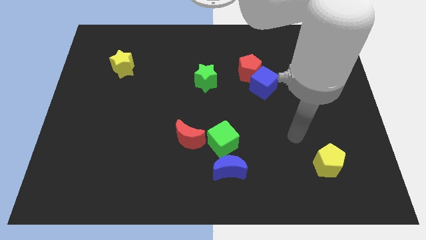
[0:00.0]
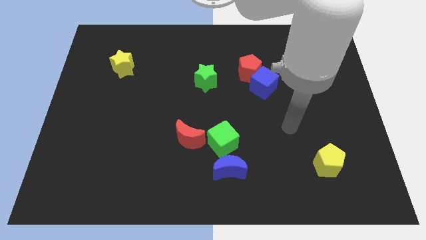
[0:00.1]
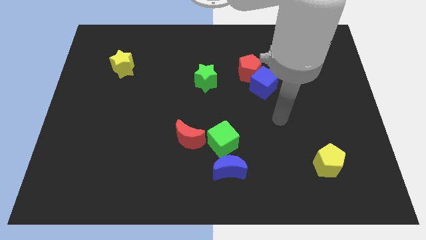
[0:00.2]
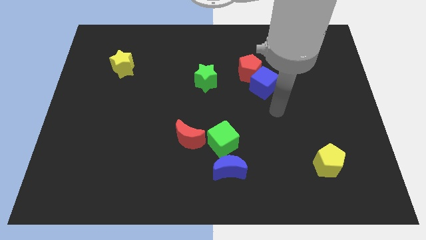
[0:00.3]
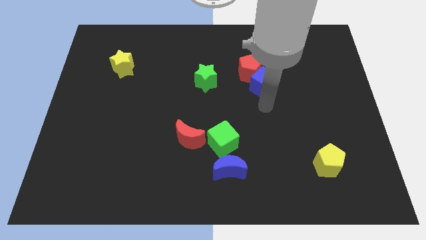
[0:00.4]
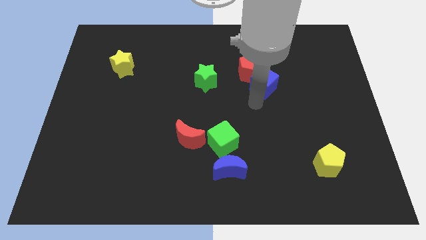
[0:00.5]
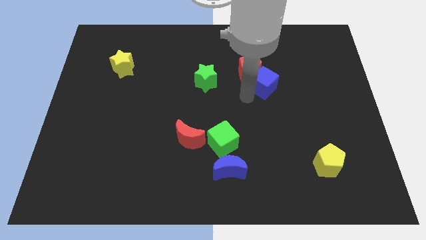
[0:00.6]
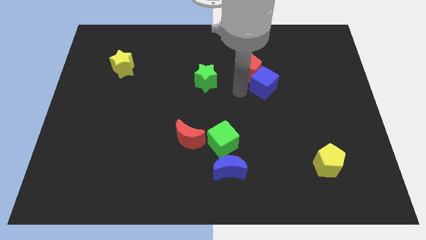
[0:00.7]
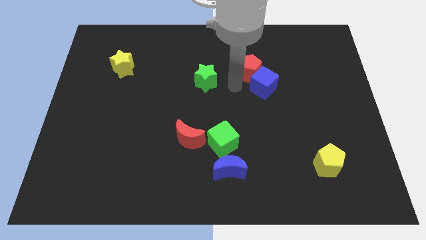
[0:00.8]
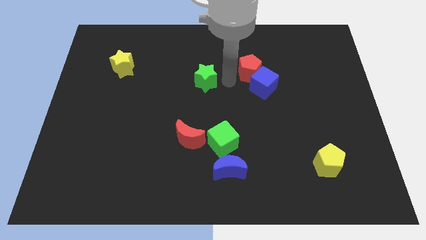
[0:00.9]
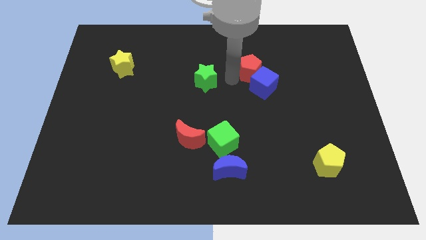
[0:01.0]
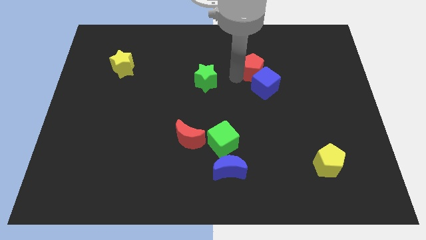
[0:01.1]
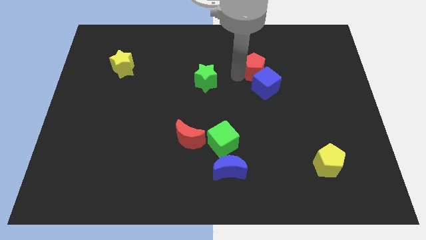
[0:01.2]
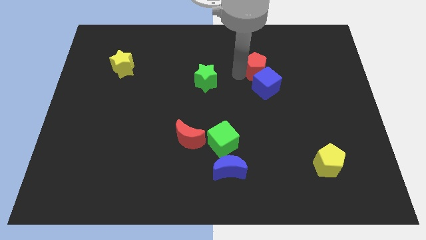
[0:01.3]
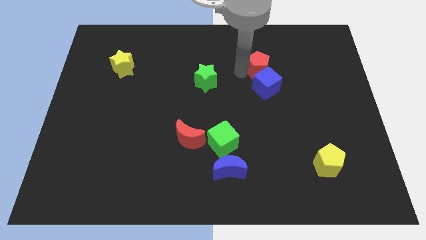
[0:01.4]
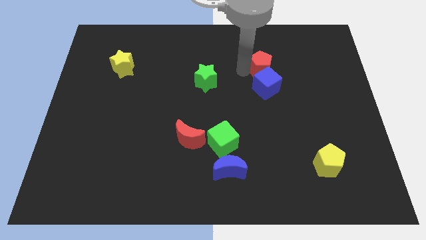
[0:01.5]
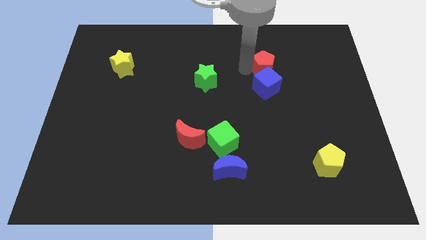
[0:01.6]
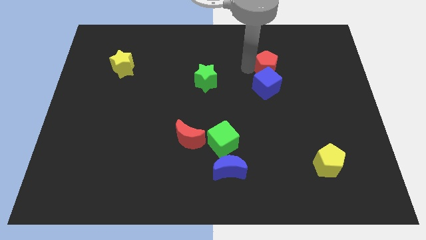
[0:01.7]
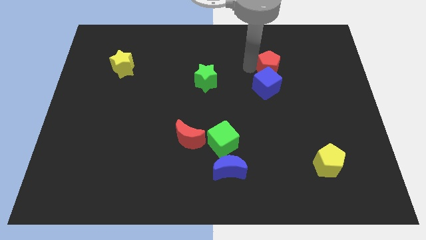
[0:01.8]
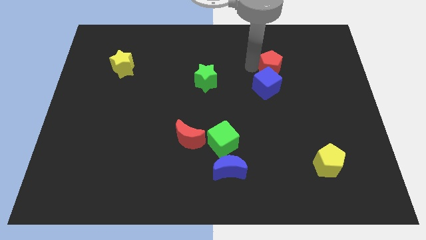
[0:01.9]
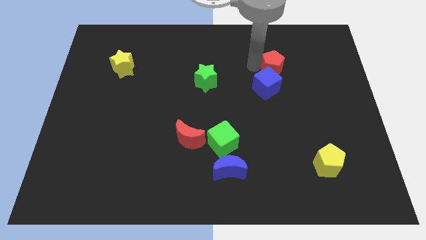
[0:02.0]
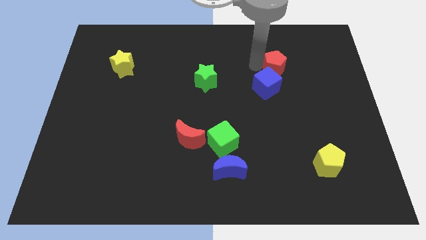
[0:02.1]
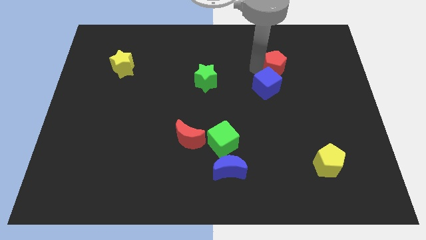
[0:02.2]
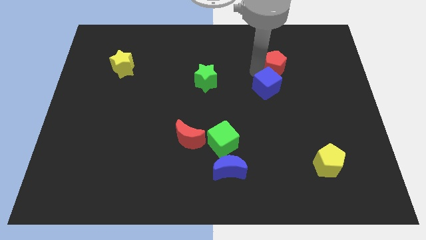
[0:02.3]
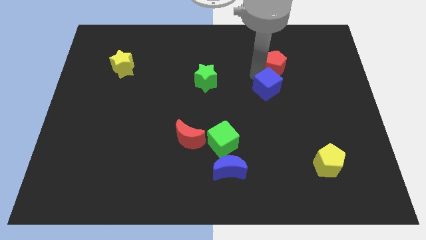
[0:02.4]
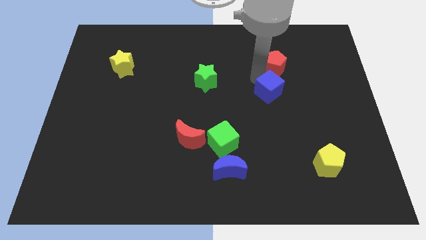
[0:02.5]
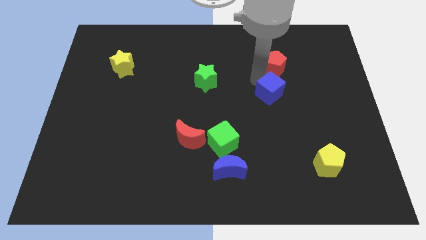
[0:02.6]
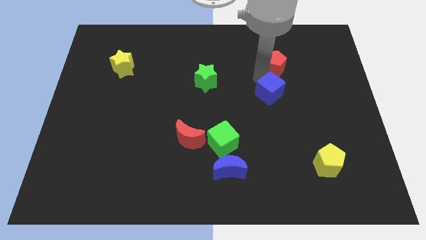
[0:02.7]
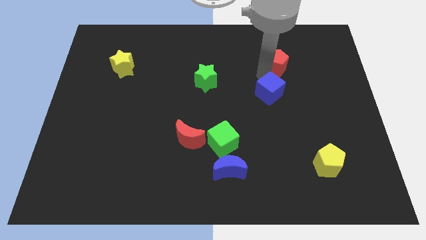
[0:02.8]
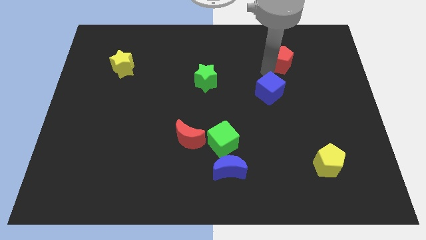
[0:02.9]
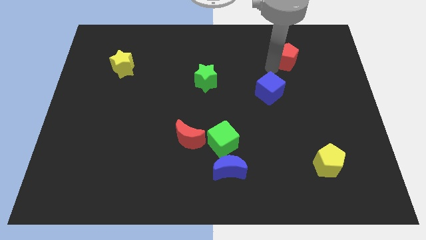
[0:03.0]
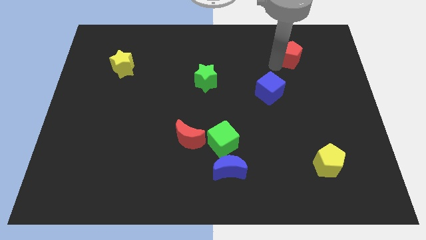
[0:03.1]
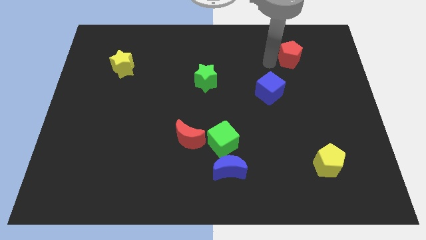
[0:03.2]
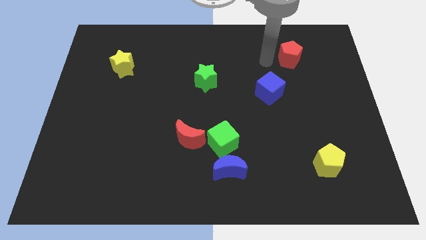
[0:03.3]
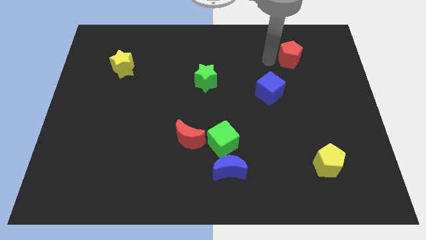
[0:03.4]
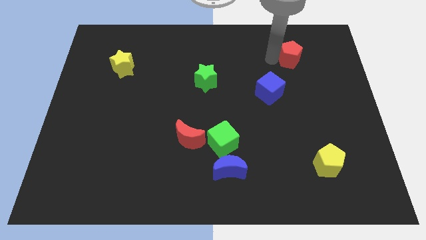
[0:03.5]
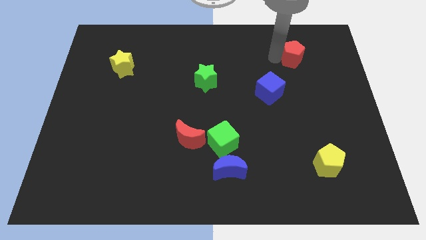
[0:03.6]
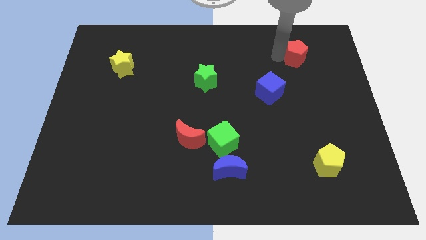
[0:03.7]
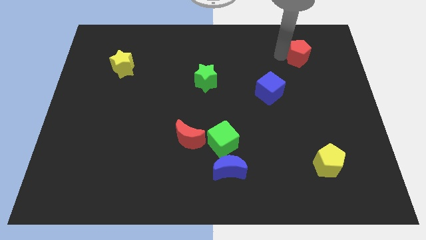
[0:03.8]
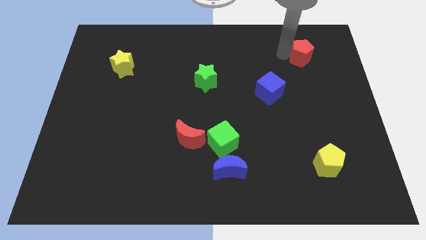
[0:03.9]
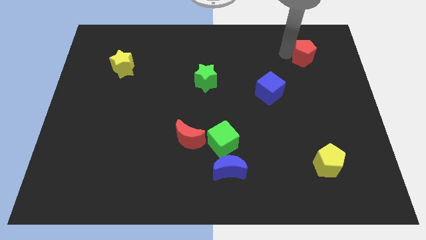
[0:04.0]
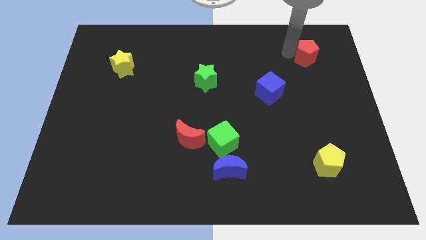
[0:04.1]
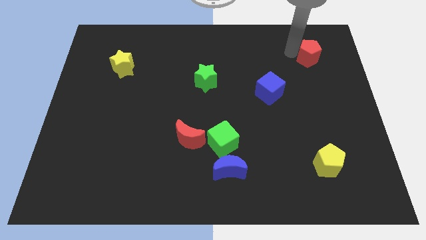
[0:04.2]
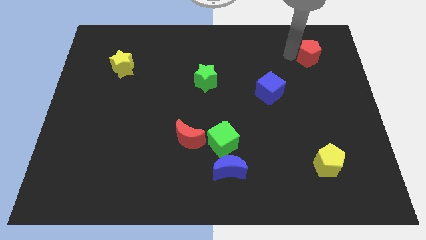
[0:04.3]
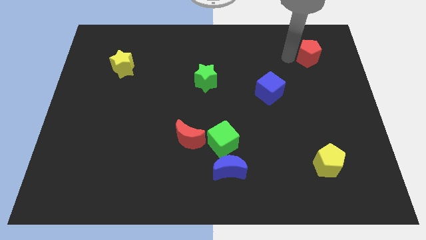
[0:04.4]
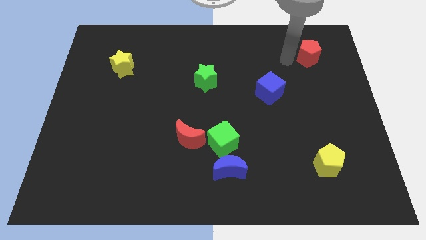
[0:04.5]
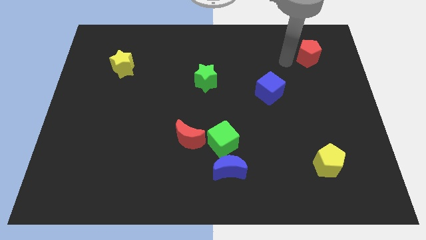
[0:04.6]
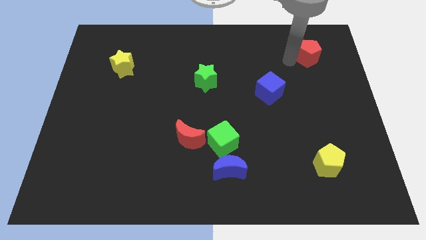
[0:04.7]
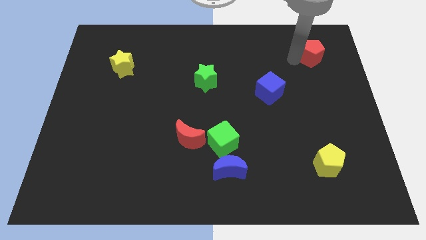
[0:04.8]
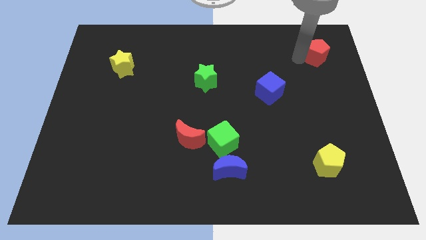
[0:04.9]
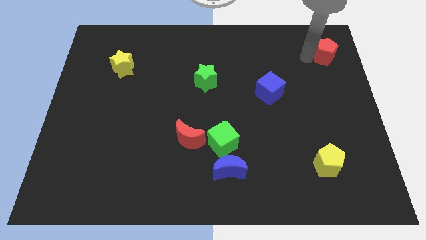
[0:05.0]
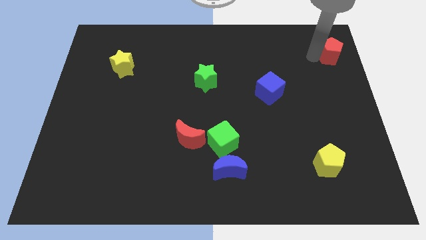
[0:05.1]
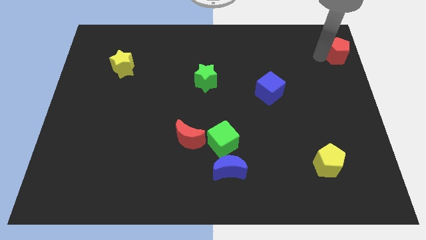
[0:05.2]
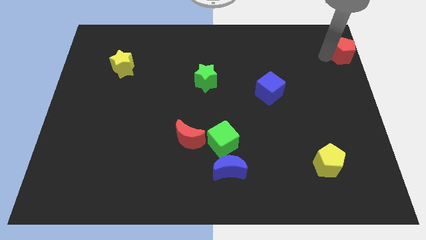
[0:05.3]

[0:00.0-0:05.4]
push the red pentagon to the upper right corner

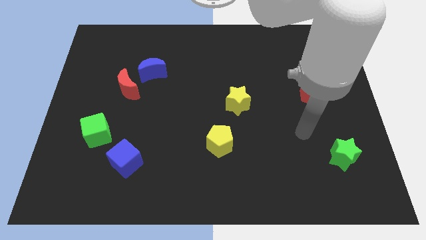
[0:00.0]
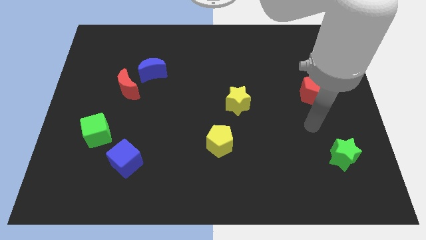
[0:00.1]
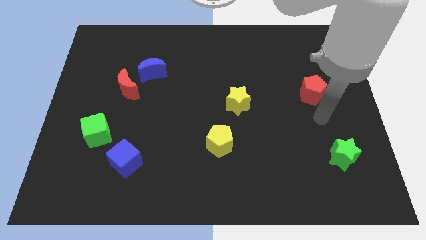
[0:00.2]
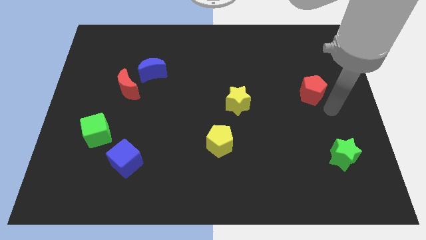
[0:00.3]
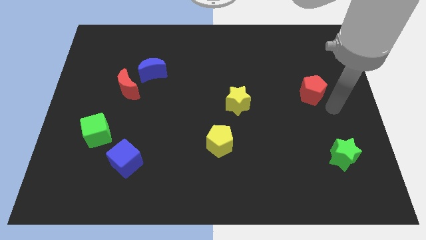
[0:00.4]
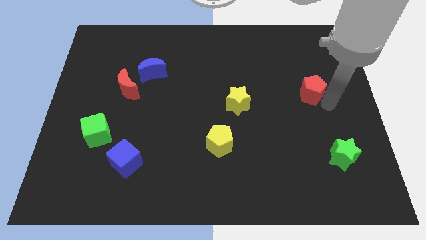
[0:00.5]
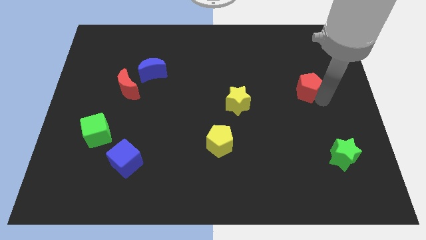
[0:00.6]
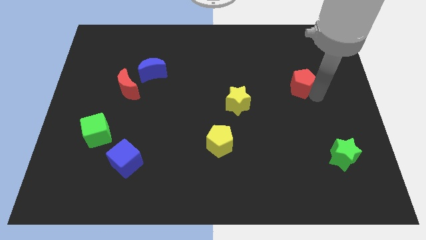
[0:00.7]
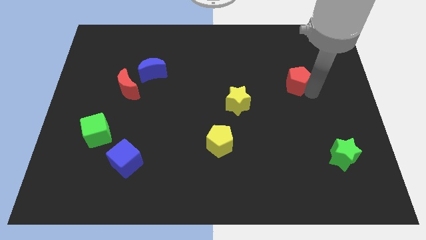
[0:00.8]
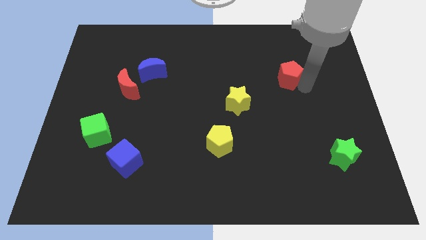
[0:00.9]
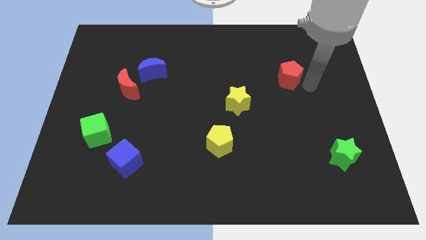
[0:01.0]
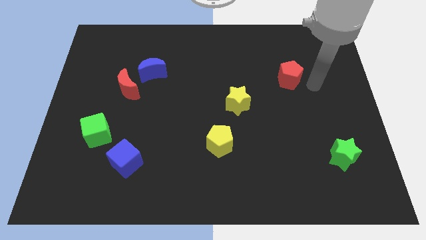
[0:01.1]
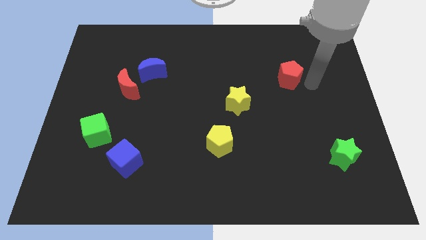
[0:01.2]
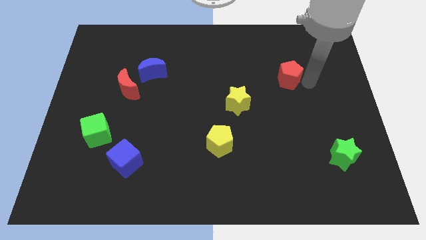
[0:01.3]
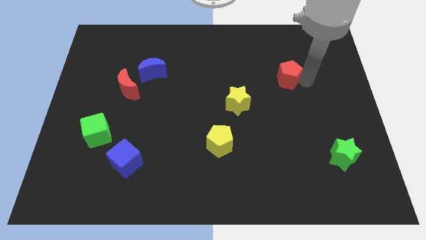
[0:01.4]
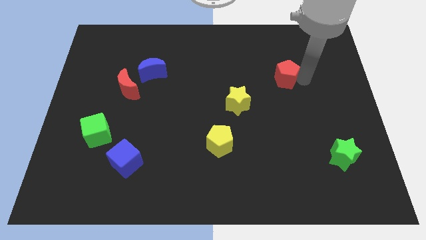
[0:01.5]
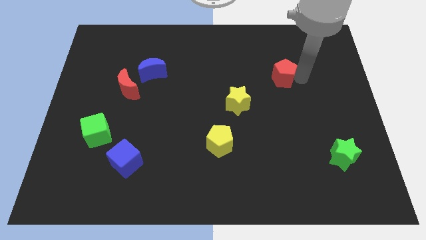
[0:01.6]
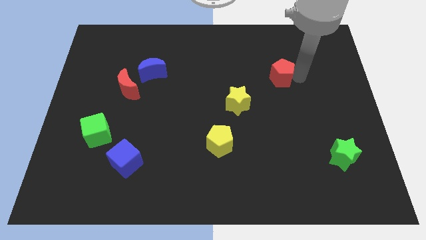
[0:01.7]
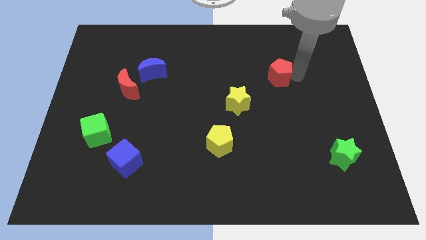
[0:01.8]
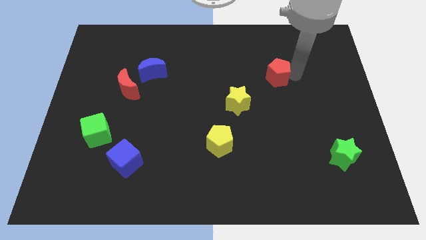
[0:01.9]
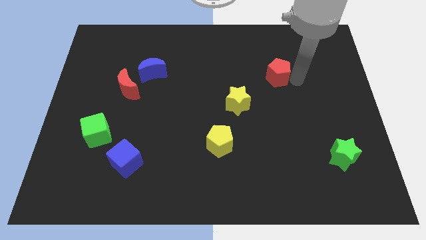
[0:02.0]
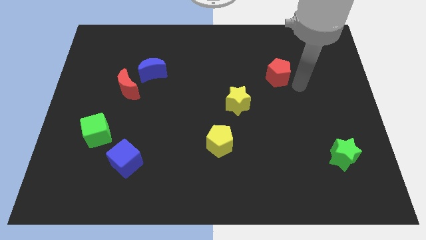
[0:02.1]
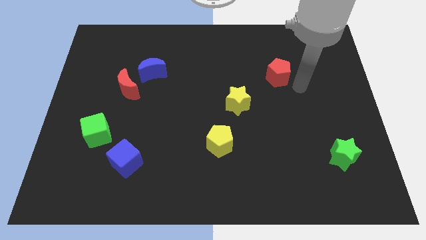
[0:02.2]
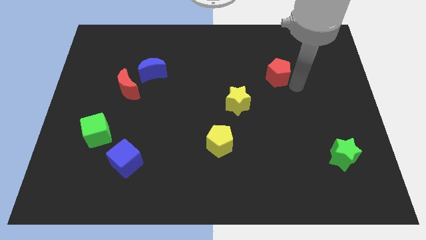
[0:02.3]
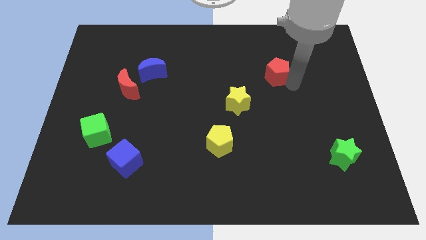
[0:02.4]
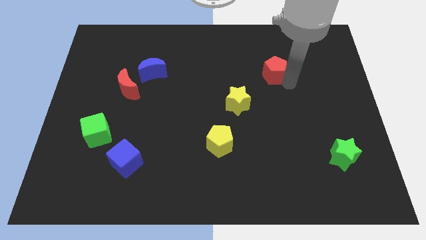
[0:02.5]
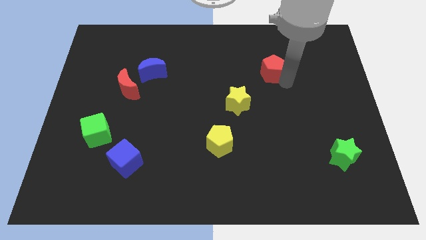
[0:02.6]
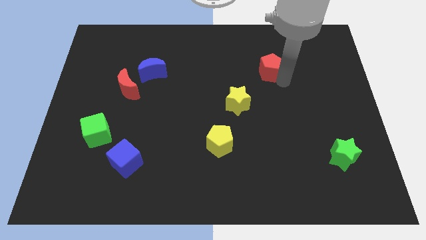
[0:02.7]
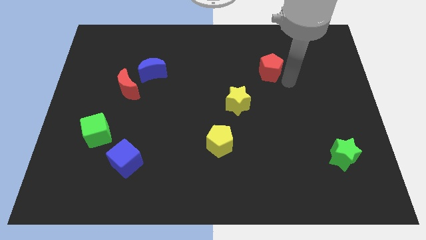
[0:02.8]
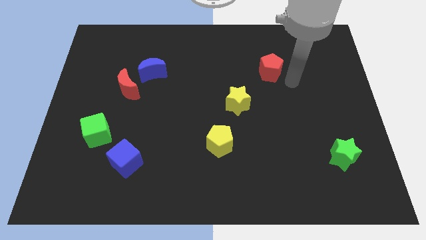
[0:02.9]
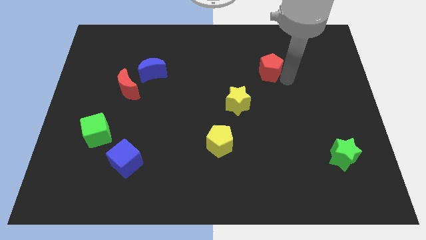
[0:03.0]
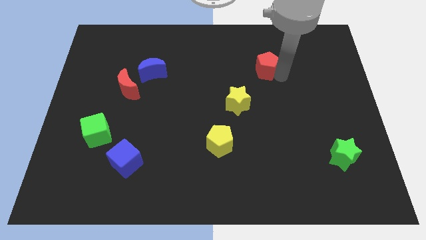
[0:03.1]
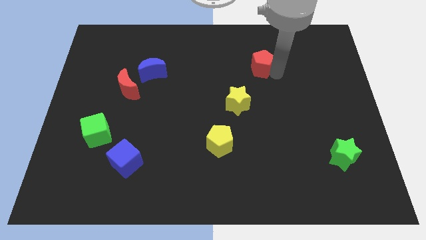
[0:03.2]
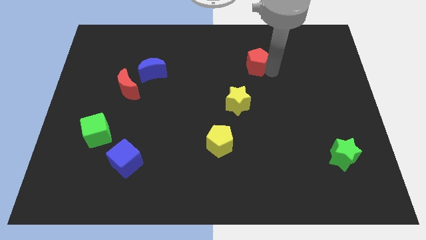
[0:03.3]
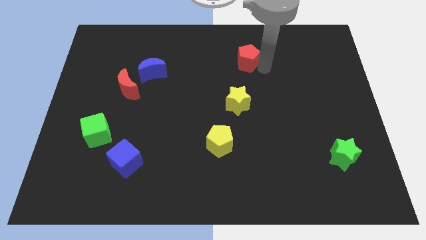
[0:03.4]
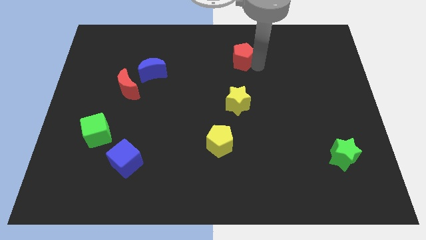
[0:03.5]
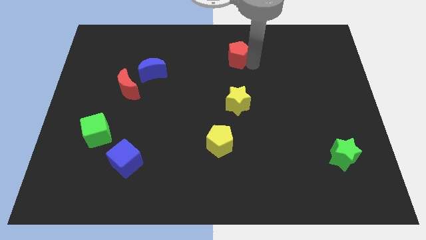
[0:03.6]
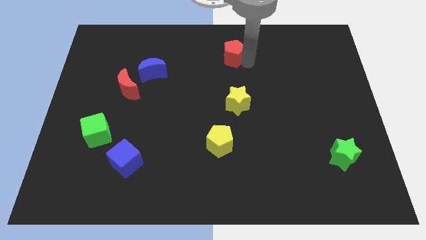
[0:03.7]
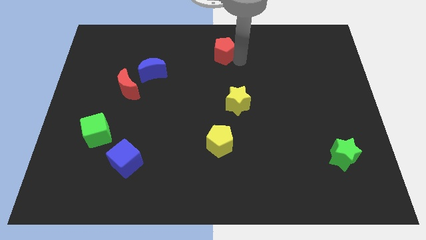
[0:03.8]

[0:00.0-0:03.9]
move the red pentagon to the towards your base
